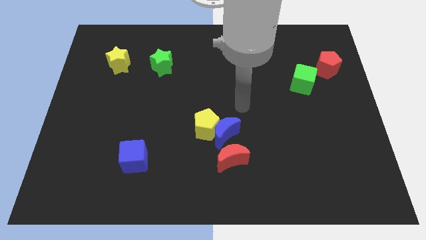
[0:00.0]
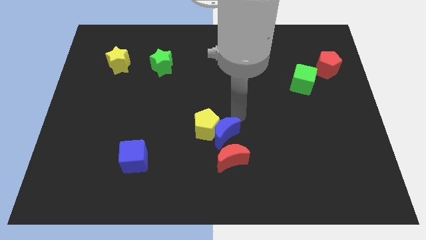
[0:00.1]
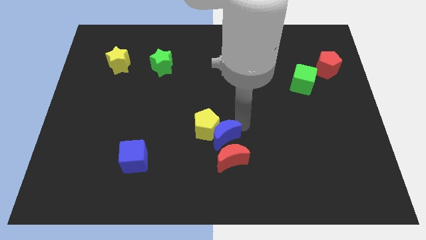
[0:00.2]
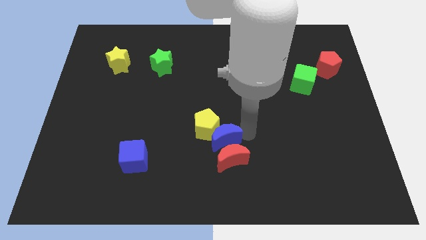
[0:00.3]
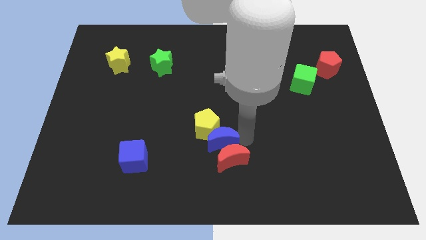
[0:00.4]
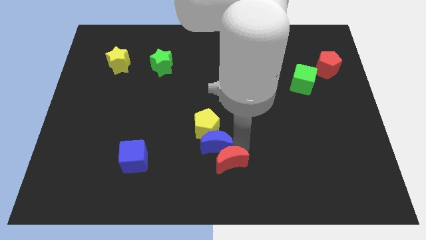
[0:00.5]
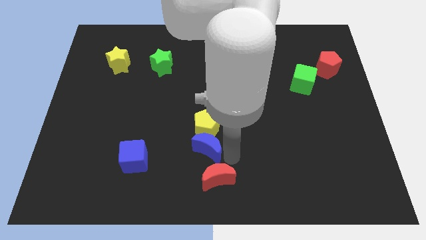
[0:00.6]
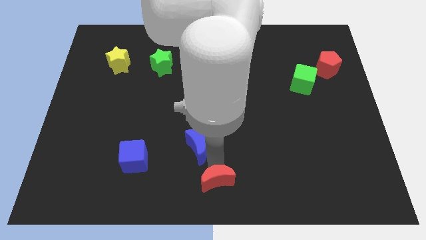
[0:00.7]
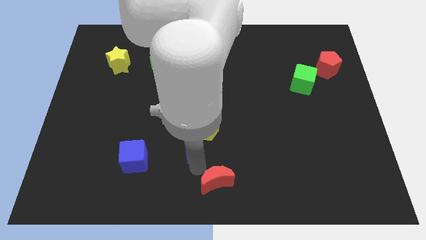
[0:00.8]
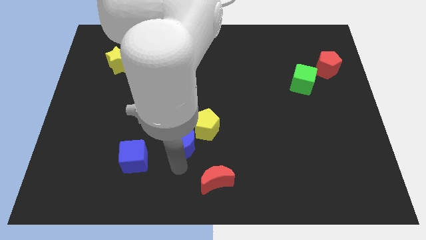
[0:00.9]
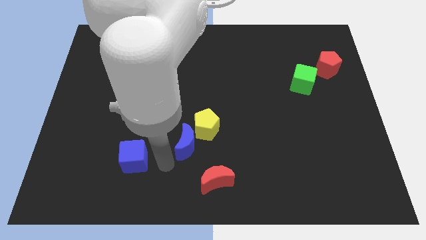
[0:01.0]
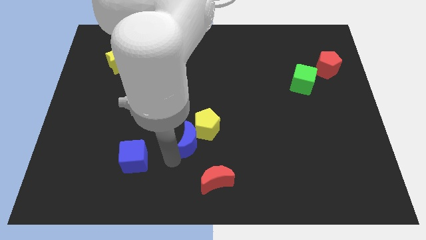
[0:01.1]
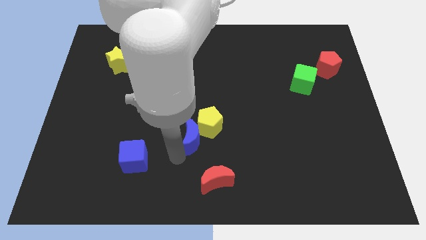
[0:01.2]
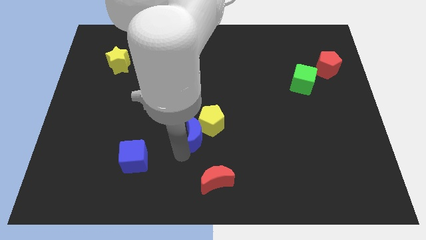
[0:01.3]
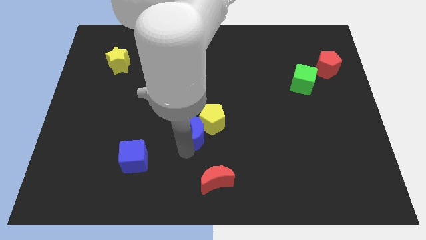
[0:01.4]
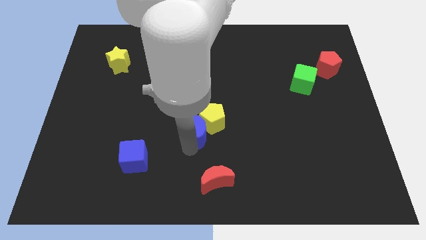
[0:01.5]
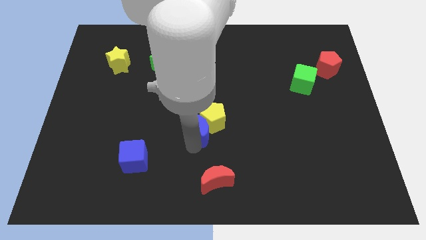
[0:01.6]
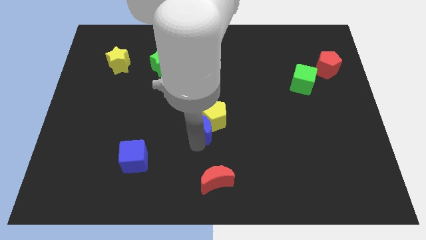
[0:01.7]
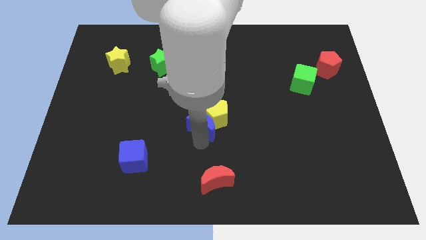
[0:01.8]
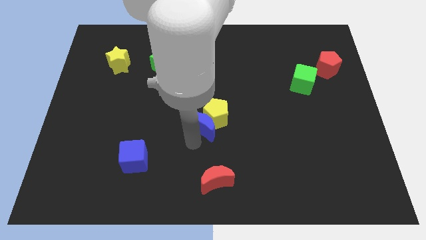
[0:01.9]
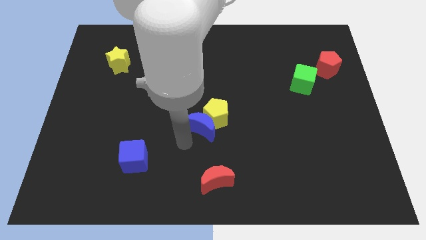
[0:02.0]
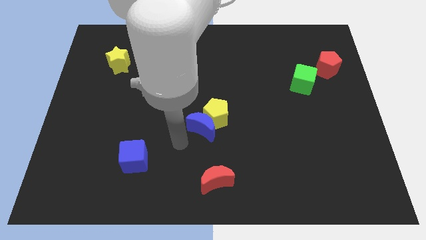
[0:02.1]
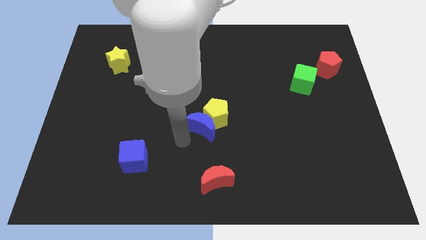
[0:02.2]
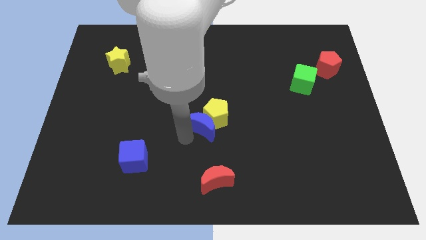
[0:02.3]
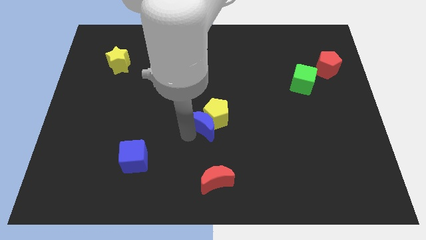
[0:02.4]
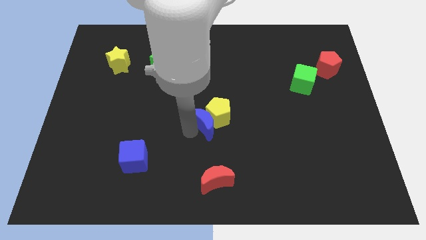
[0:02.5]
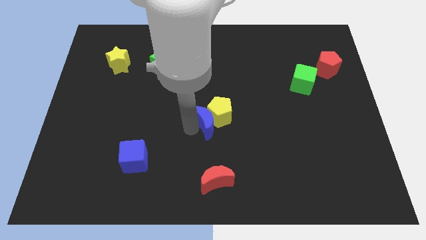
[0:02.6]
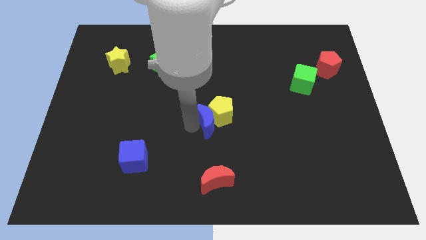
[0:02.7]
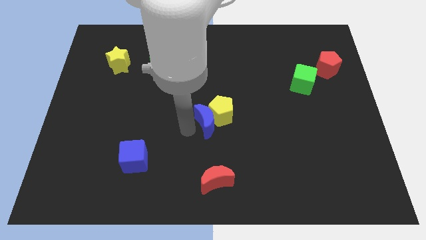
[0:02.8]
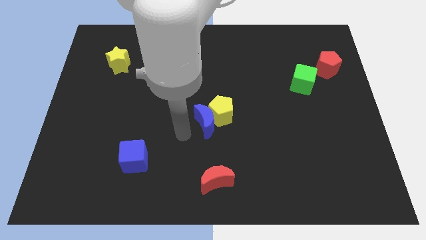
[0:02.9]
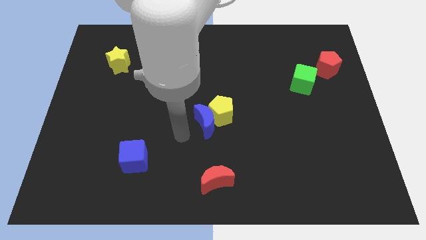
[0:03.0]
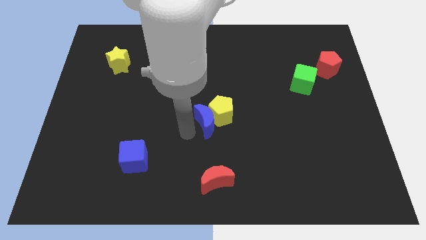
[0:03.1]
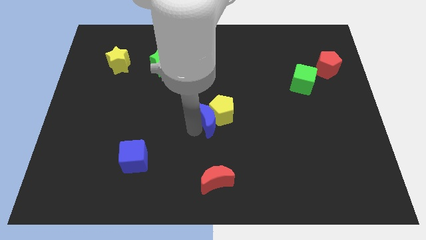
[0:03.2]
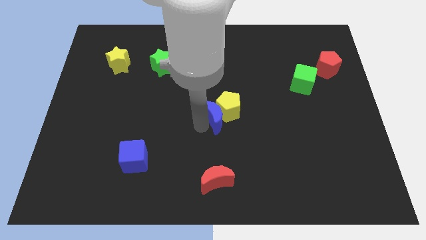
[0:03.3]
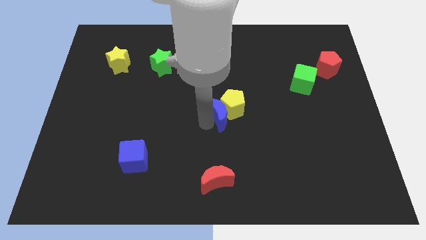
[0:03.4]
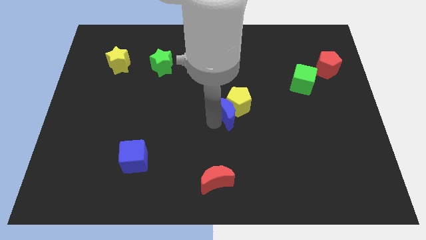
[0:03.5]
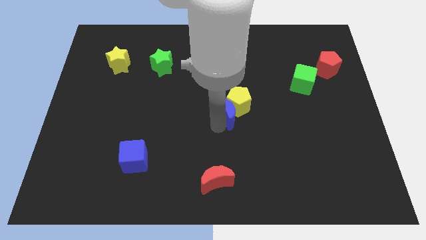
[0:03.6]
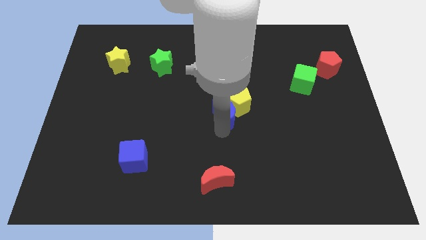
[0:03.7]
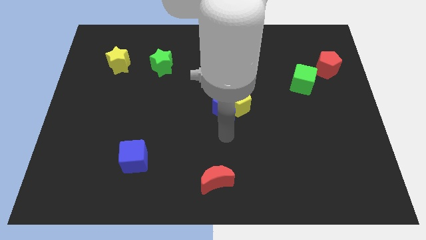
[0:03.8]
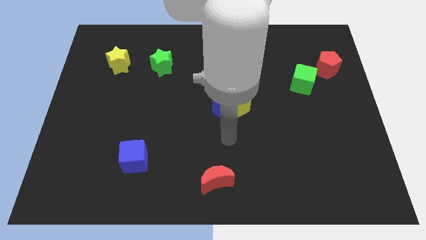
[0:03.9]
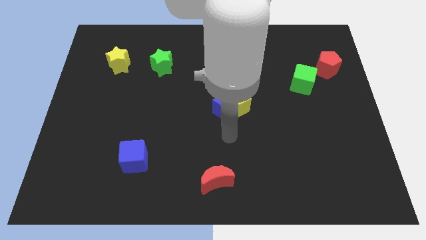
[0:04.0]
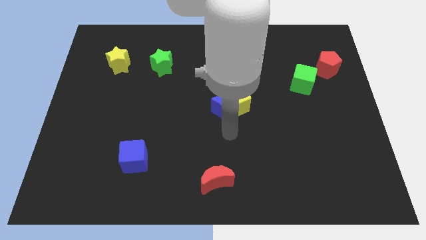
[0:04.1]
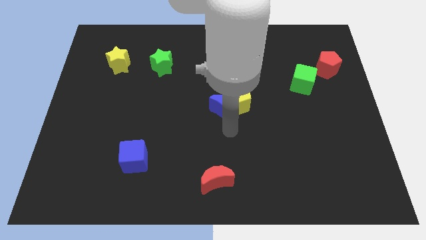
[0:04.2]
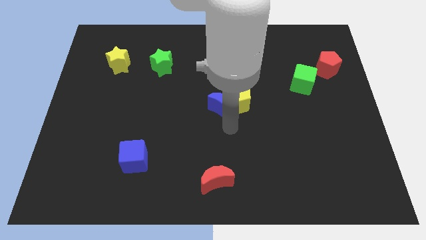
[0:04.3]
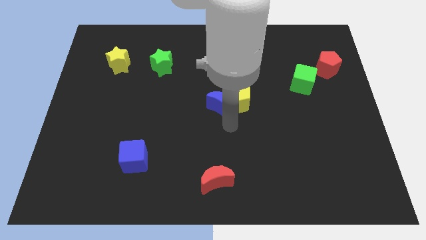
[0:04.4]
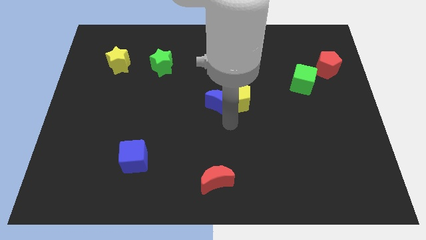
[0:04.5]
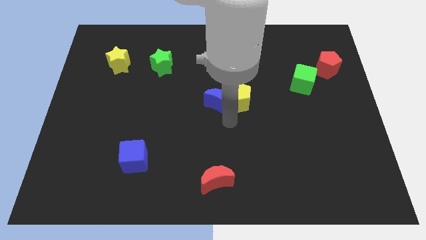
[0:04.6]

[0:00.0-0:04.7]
separate the blue moon from the yellow pentagon and red moon

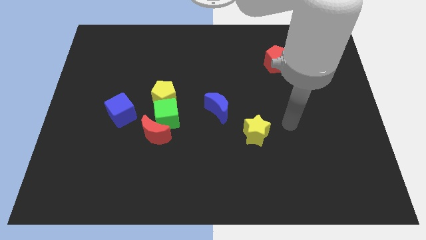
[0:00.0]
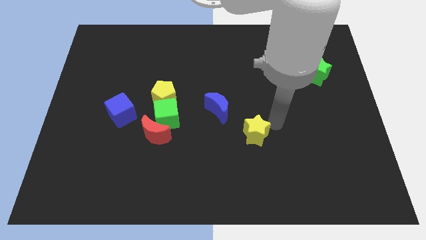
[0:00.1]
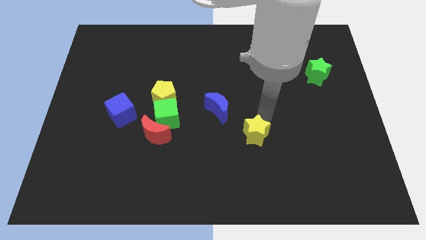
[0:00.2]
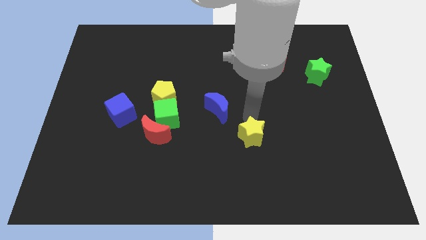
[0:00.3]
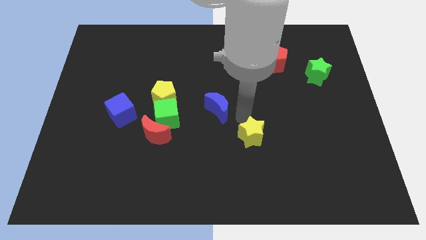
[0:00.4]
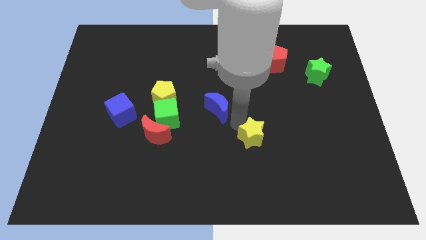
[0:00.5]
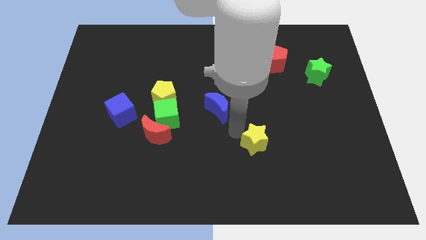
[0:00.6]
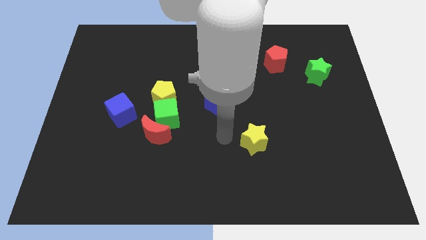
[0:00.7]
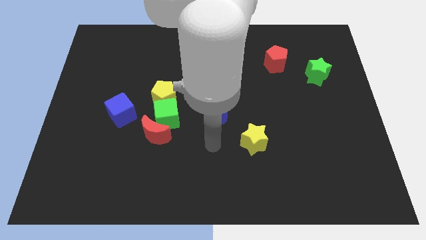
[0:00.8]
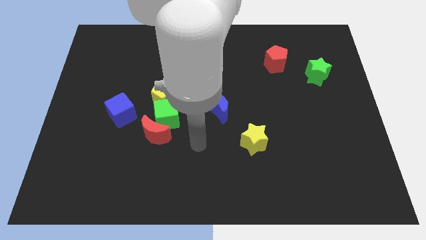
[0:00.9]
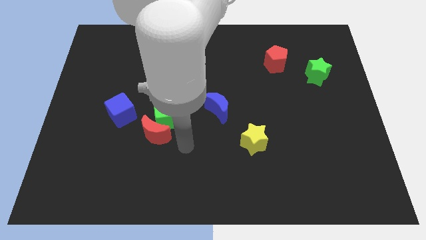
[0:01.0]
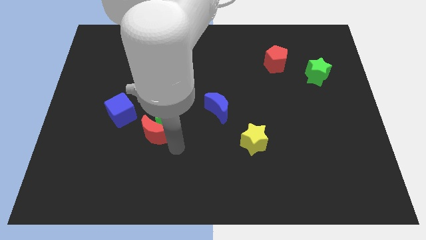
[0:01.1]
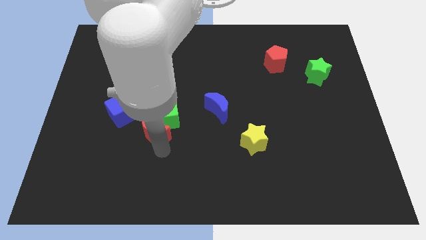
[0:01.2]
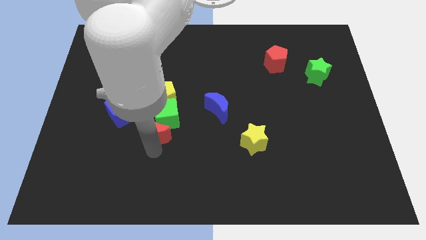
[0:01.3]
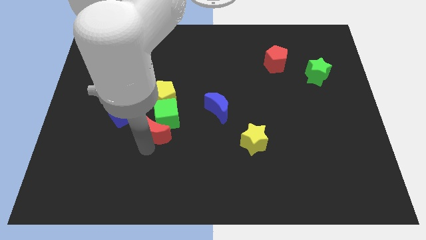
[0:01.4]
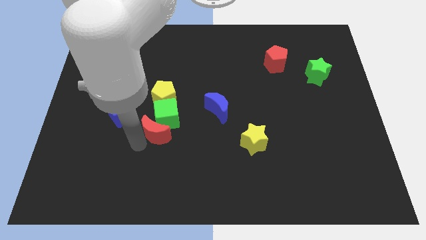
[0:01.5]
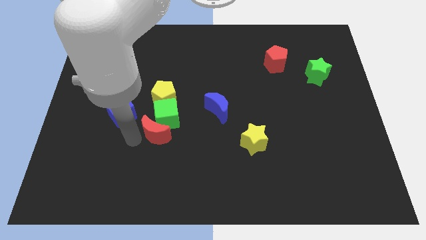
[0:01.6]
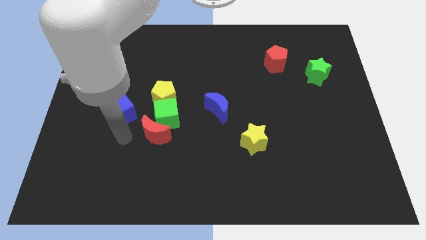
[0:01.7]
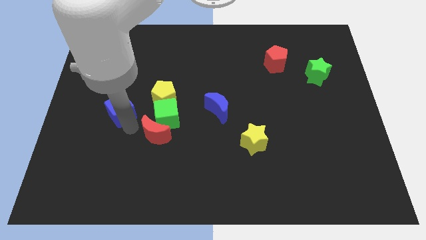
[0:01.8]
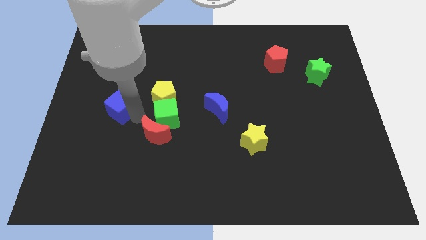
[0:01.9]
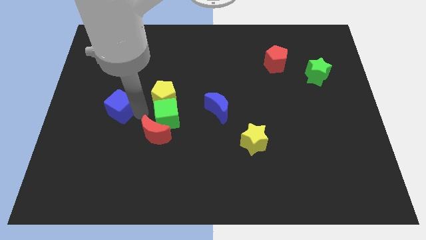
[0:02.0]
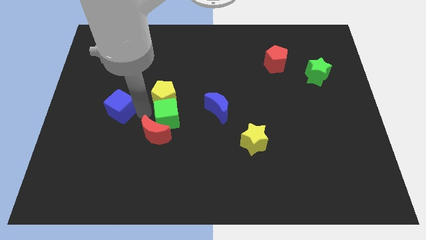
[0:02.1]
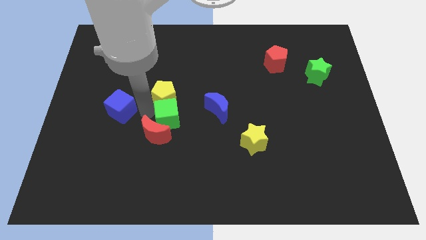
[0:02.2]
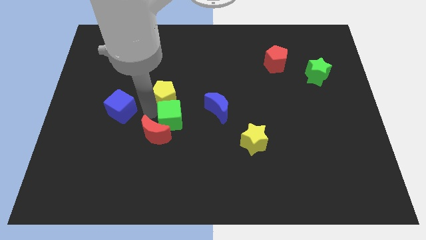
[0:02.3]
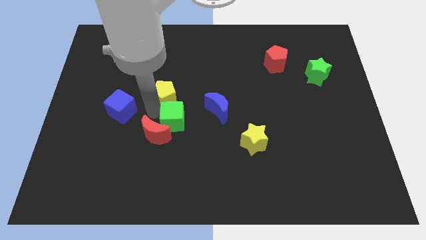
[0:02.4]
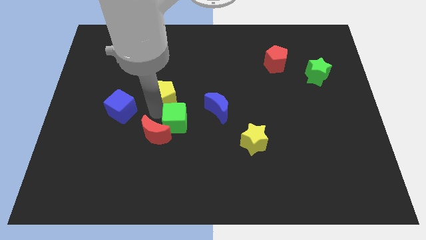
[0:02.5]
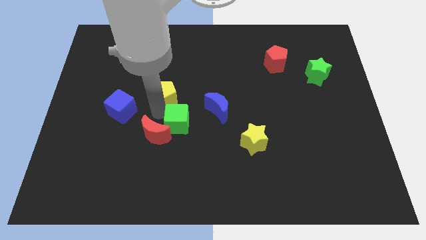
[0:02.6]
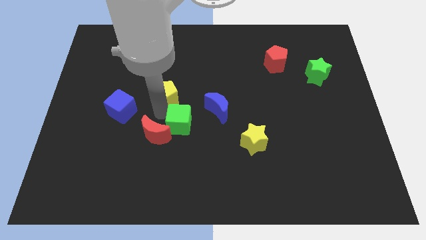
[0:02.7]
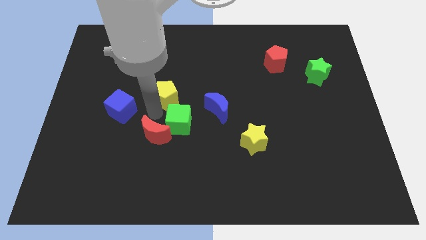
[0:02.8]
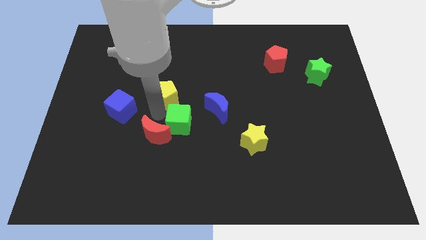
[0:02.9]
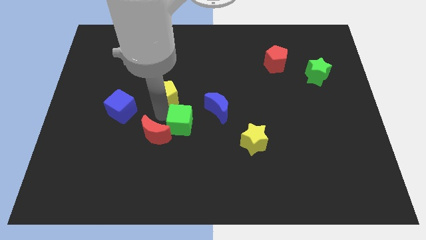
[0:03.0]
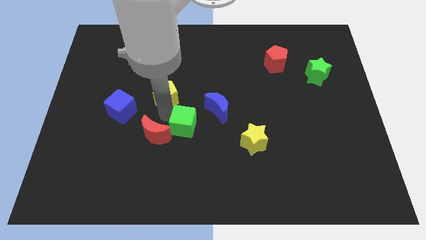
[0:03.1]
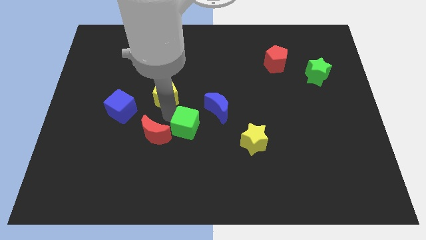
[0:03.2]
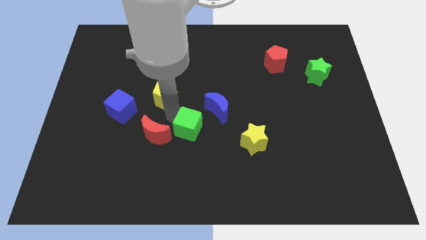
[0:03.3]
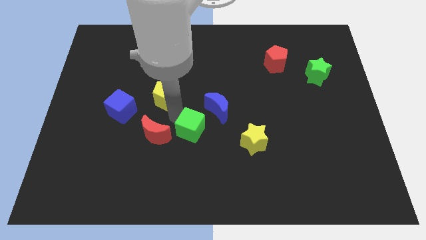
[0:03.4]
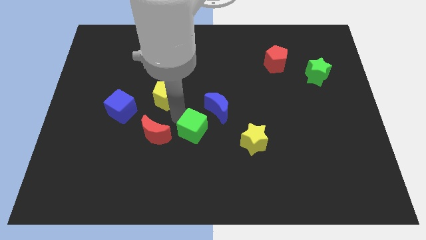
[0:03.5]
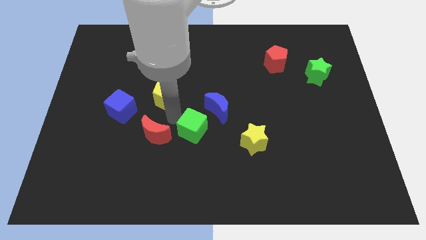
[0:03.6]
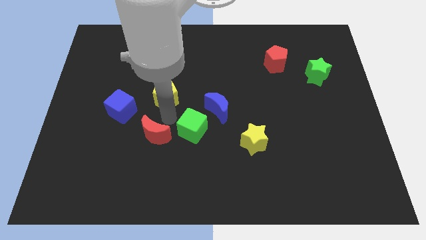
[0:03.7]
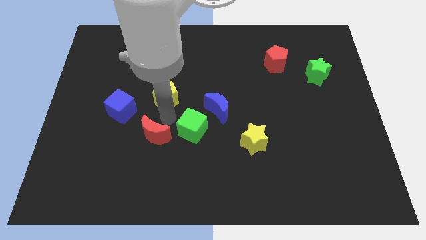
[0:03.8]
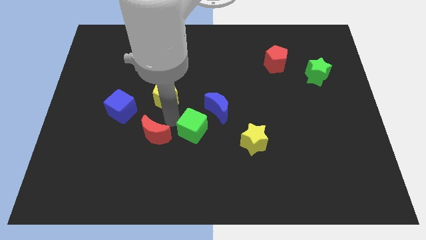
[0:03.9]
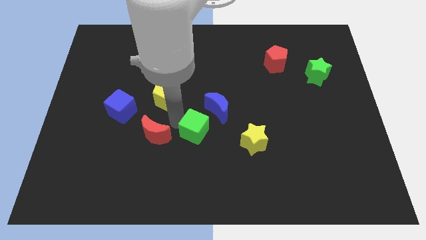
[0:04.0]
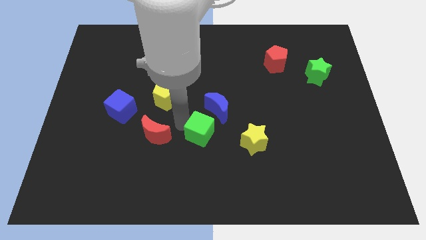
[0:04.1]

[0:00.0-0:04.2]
pull the green cube apart from the red moon and yellow pentagon

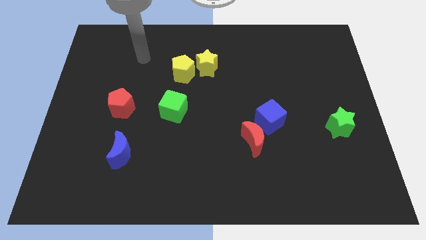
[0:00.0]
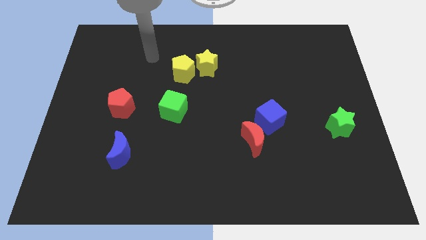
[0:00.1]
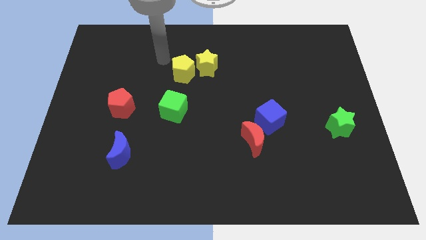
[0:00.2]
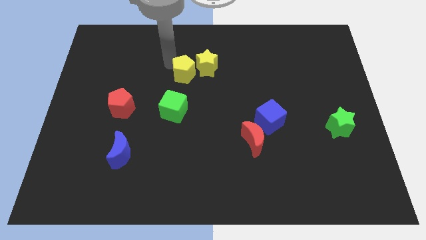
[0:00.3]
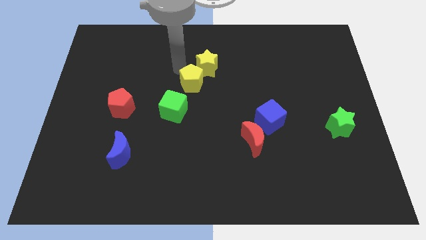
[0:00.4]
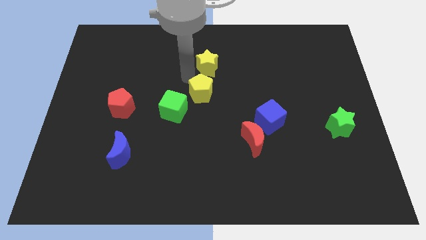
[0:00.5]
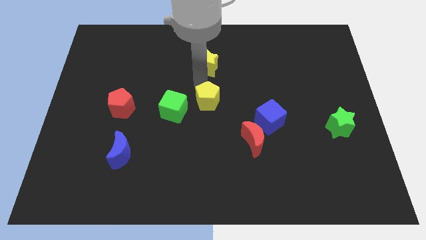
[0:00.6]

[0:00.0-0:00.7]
pull the yellow star apart from the yellow pentagon
